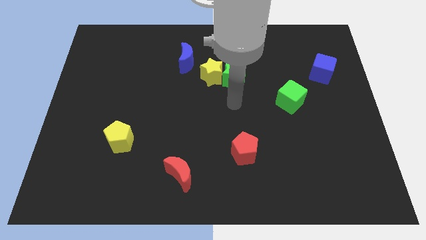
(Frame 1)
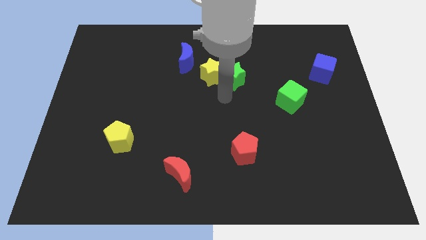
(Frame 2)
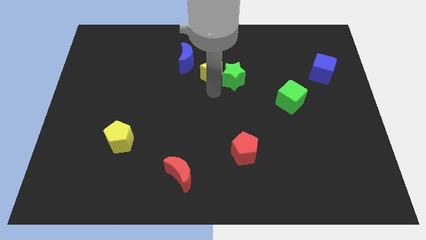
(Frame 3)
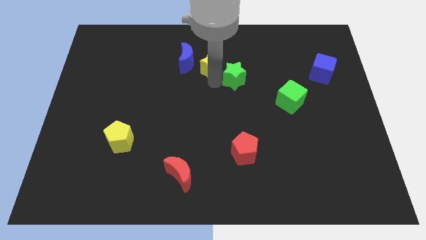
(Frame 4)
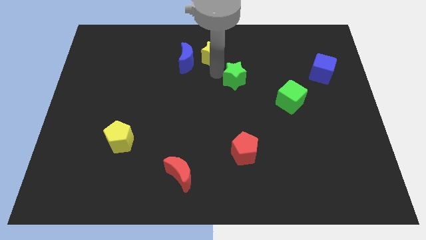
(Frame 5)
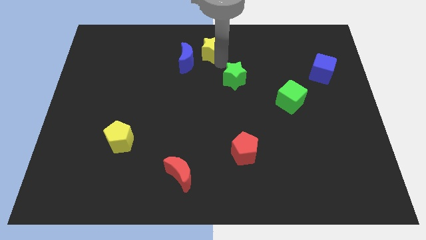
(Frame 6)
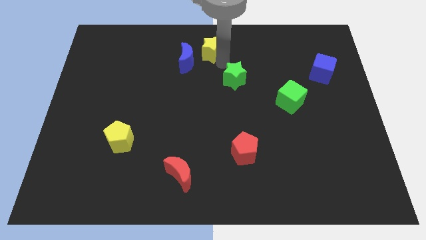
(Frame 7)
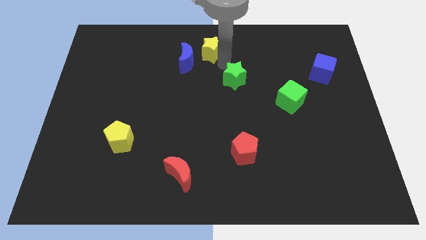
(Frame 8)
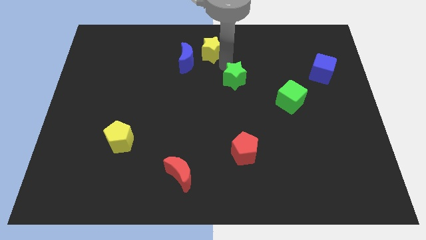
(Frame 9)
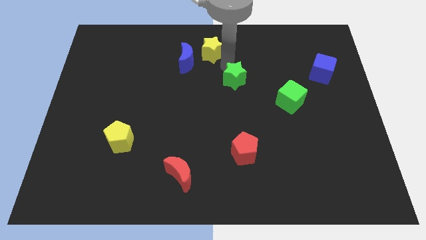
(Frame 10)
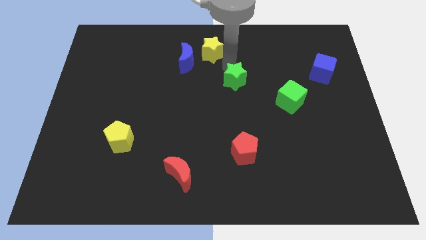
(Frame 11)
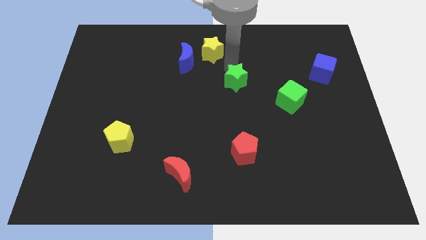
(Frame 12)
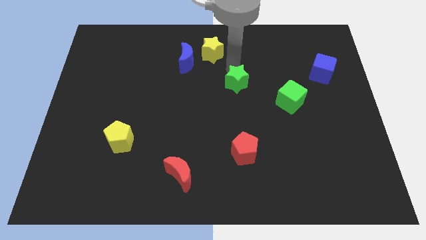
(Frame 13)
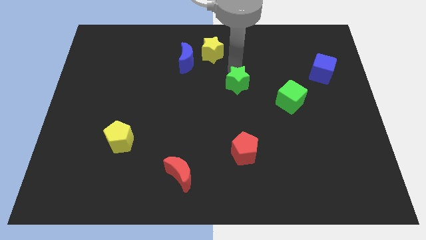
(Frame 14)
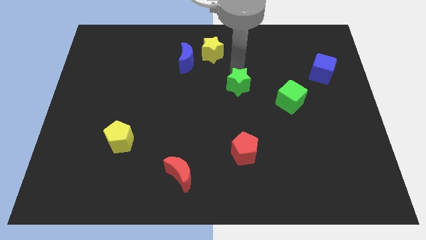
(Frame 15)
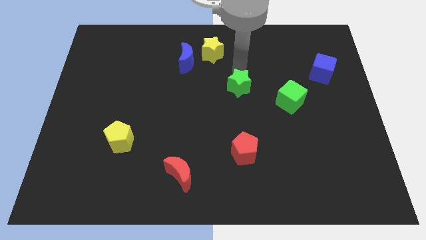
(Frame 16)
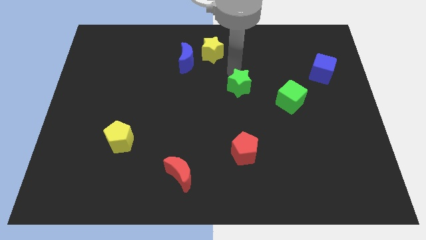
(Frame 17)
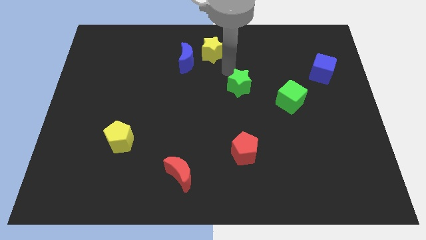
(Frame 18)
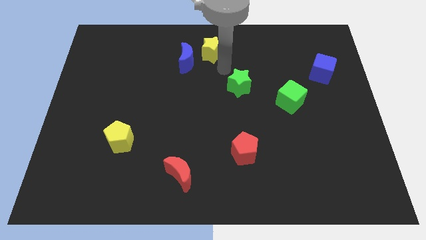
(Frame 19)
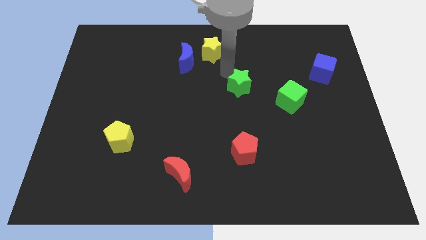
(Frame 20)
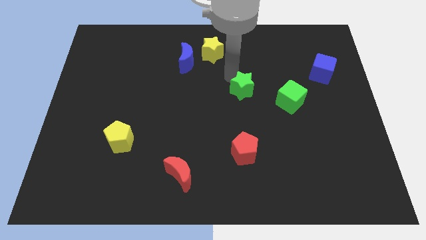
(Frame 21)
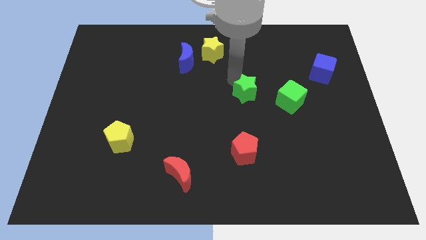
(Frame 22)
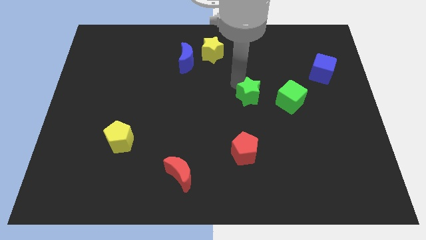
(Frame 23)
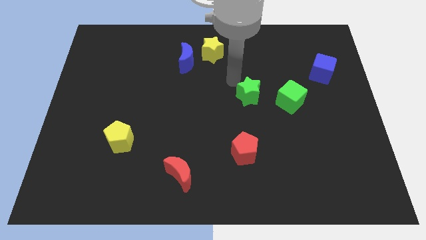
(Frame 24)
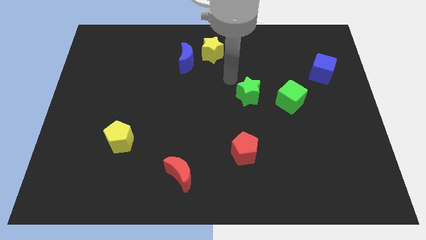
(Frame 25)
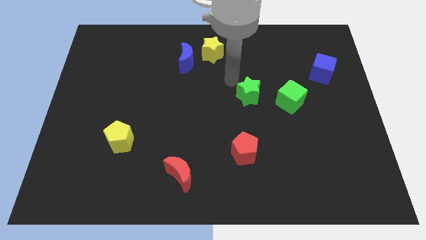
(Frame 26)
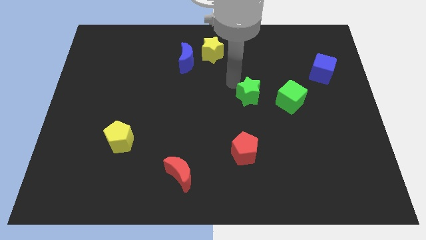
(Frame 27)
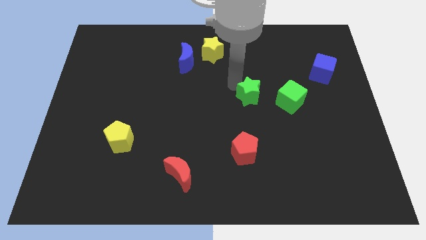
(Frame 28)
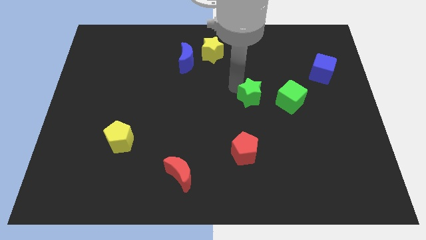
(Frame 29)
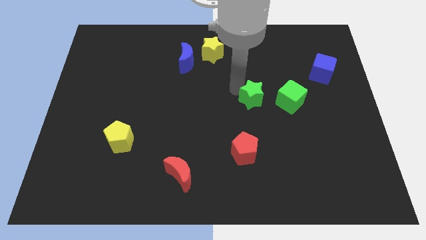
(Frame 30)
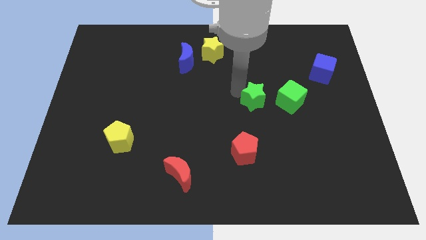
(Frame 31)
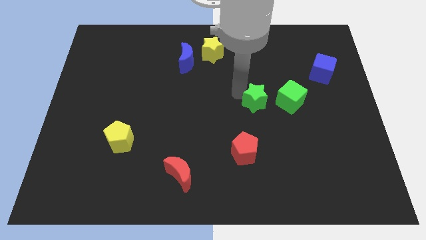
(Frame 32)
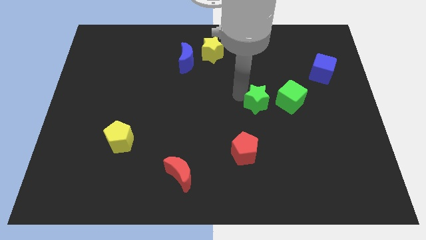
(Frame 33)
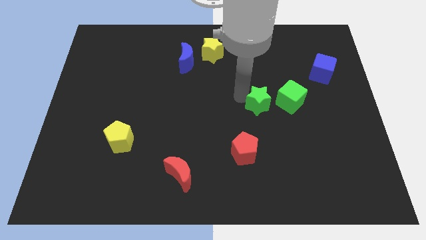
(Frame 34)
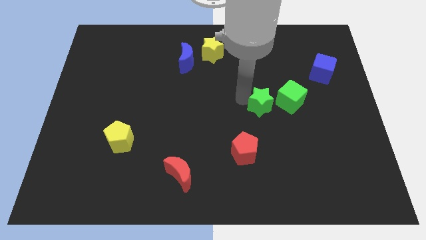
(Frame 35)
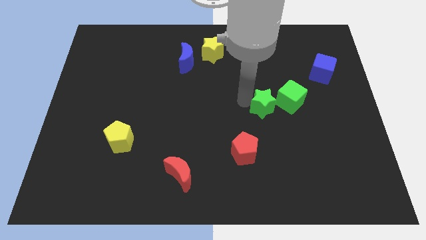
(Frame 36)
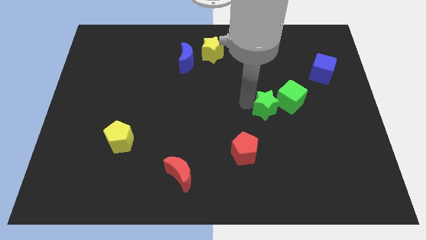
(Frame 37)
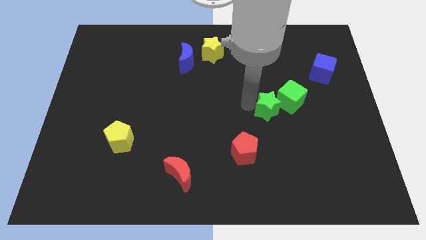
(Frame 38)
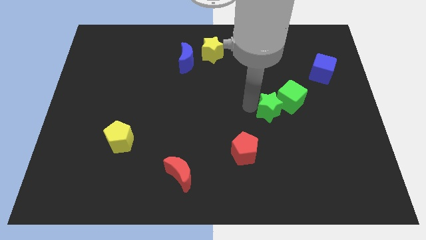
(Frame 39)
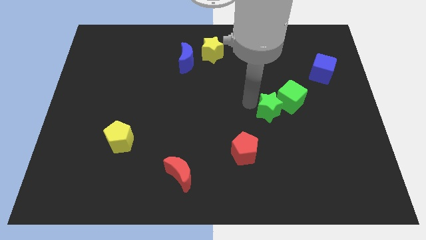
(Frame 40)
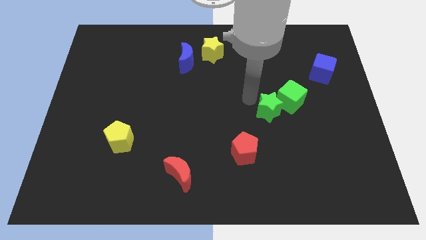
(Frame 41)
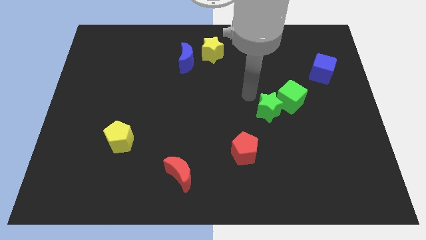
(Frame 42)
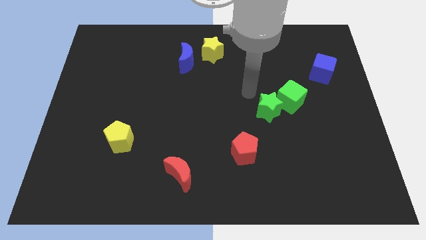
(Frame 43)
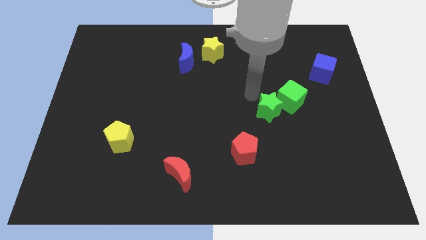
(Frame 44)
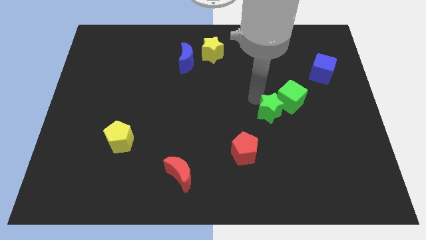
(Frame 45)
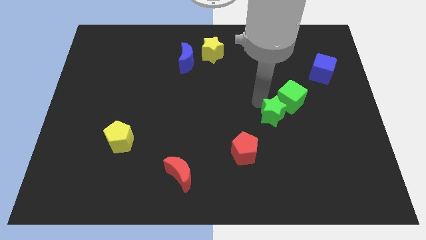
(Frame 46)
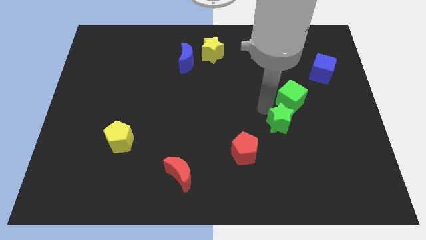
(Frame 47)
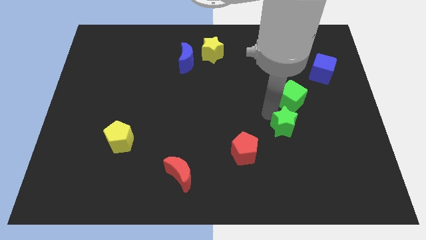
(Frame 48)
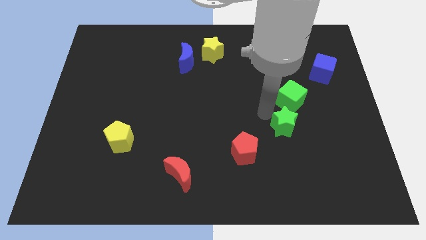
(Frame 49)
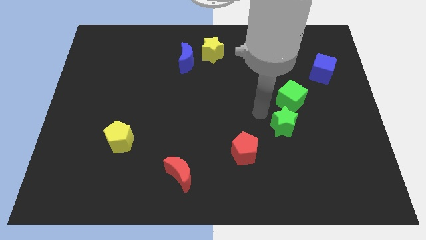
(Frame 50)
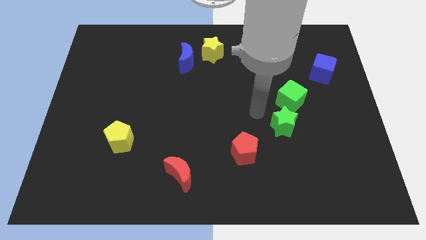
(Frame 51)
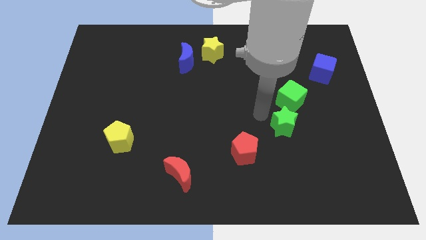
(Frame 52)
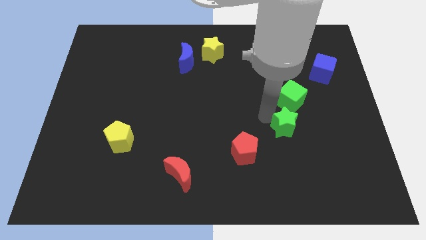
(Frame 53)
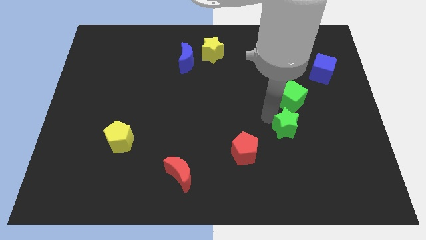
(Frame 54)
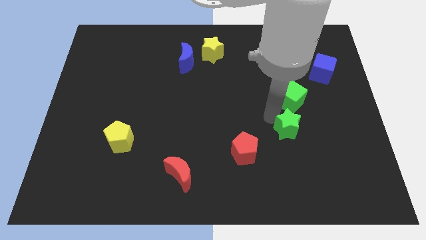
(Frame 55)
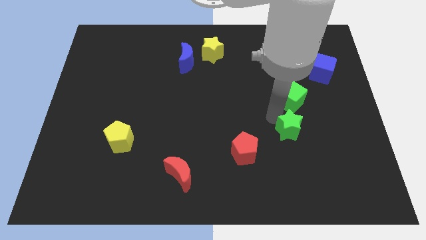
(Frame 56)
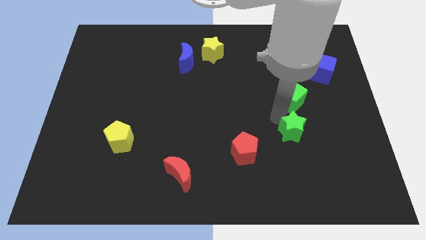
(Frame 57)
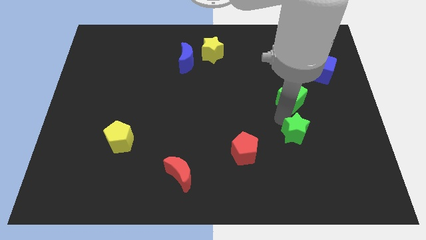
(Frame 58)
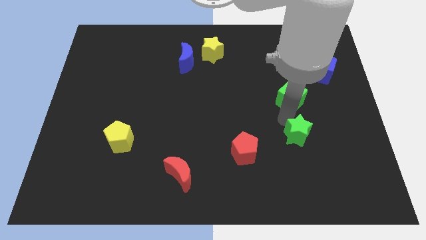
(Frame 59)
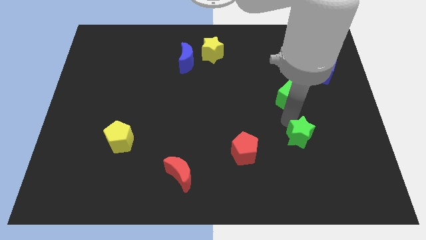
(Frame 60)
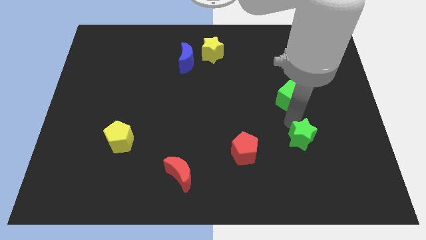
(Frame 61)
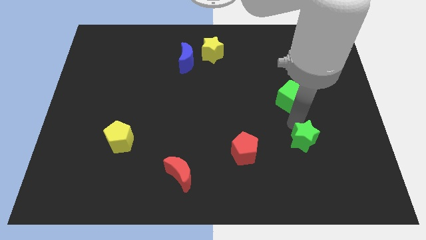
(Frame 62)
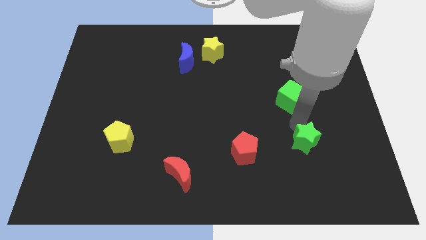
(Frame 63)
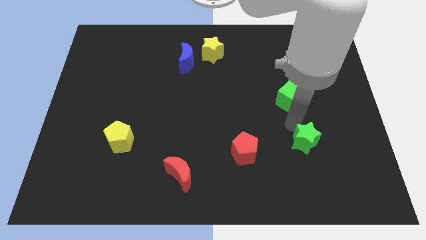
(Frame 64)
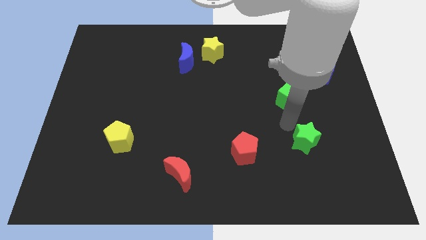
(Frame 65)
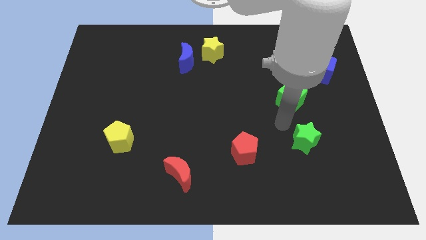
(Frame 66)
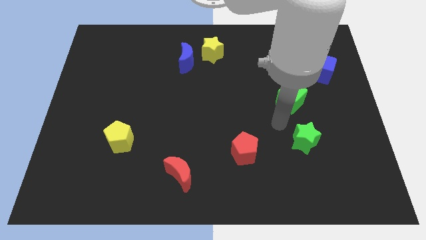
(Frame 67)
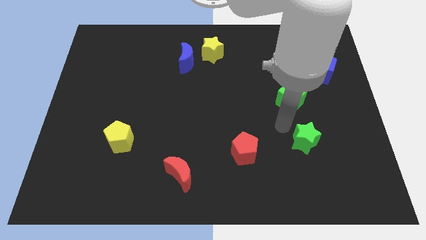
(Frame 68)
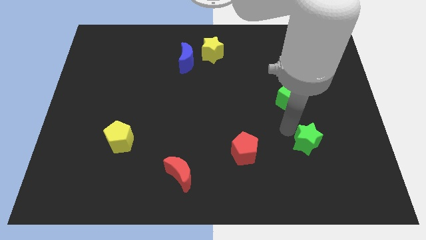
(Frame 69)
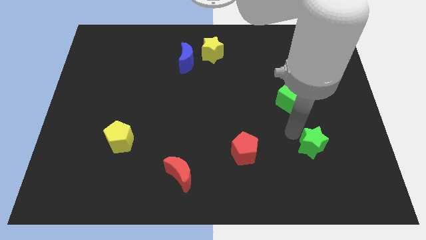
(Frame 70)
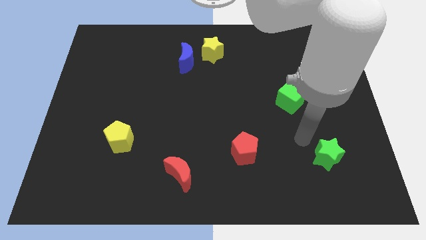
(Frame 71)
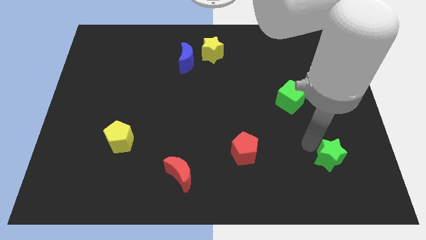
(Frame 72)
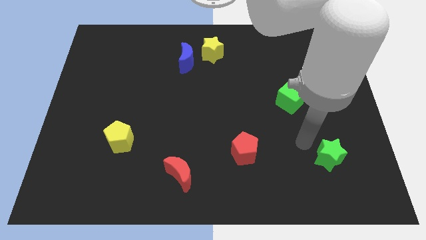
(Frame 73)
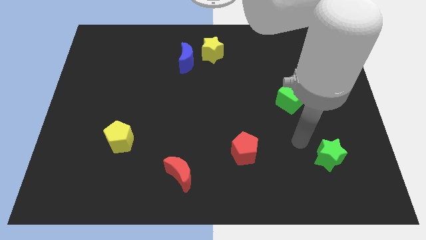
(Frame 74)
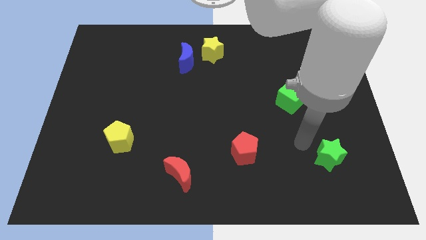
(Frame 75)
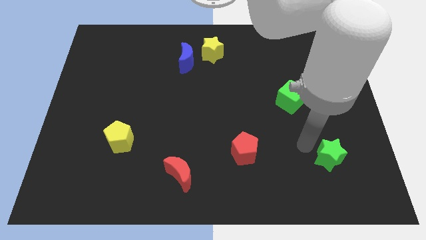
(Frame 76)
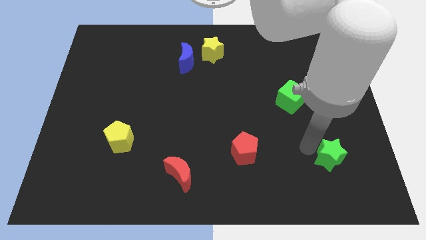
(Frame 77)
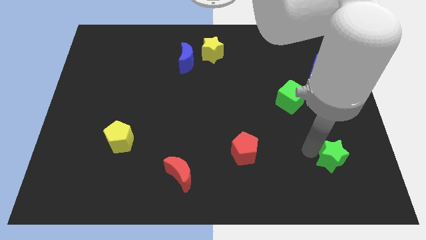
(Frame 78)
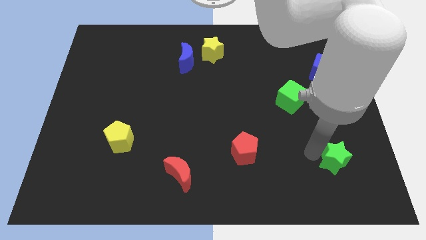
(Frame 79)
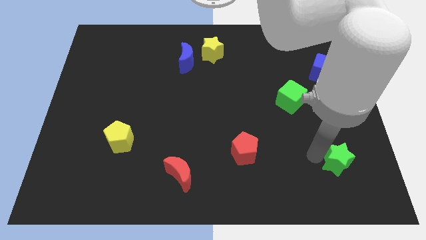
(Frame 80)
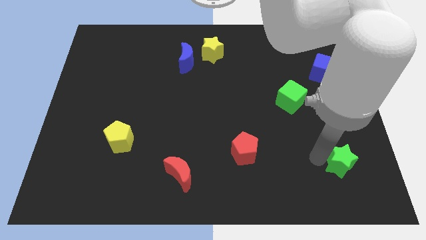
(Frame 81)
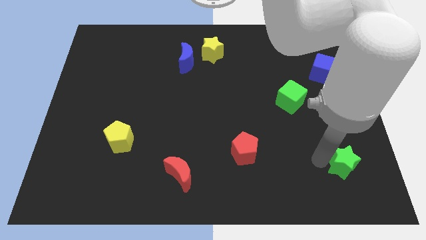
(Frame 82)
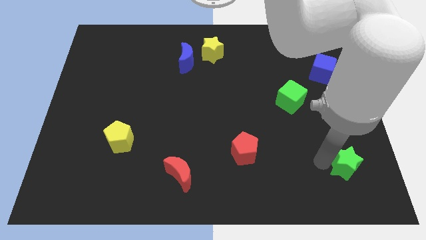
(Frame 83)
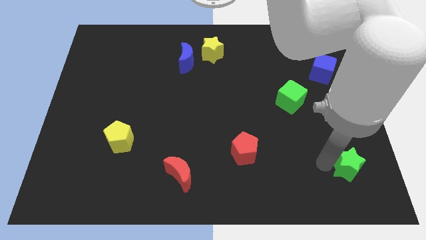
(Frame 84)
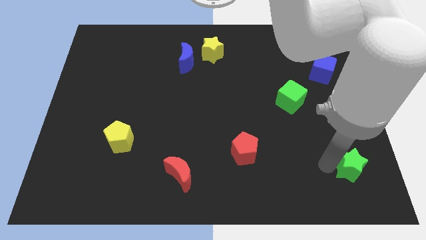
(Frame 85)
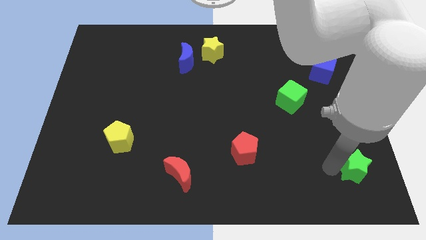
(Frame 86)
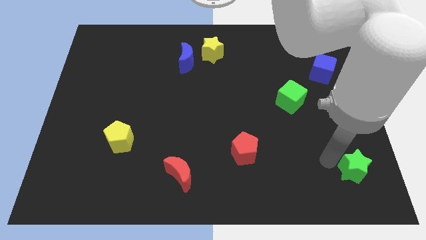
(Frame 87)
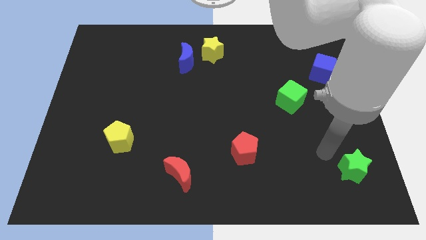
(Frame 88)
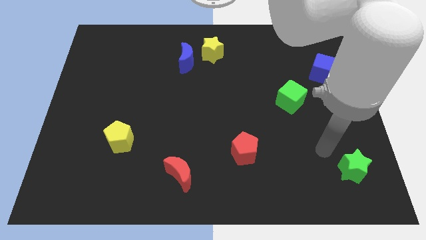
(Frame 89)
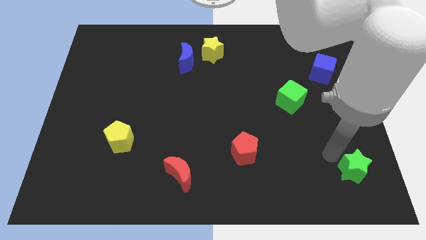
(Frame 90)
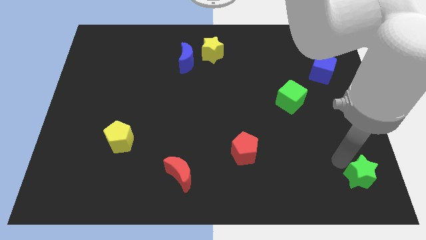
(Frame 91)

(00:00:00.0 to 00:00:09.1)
push the green star to the bottom right
